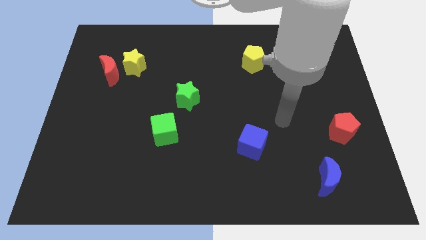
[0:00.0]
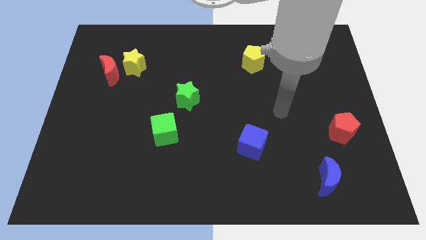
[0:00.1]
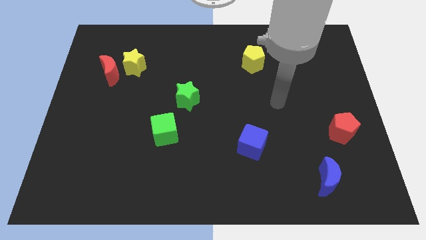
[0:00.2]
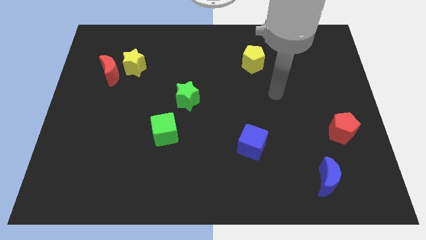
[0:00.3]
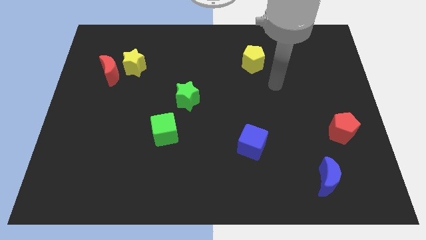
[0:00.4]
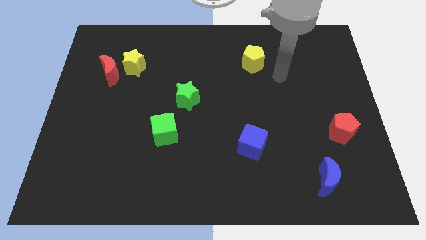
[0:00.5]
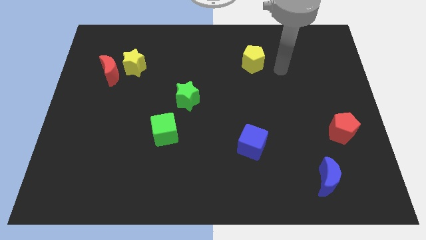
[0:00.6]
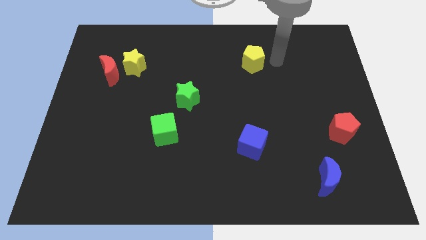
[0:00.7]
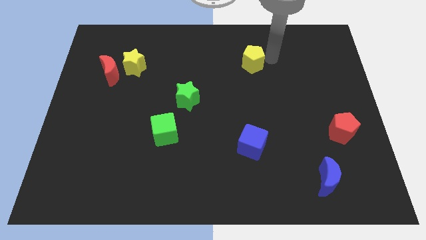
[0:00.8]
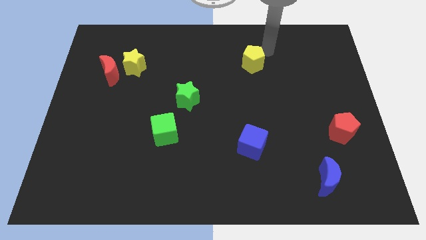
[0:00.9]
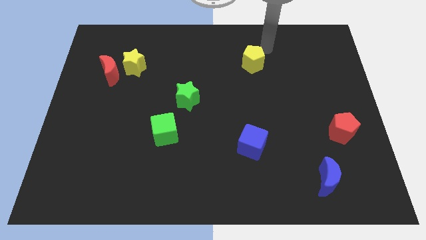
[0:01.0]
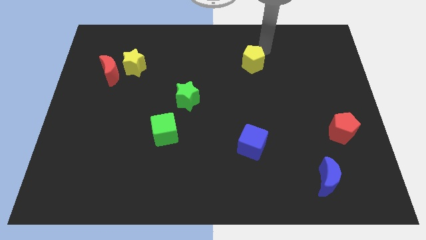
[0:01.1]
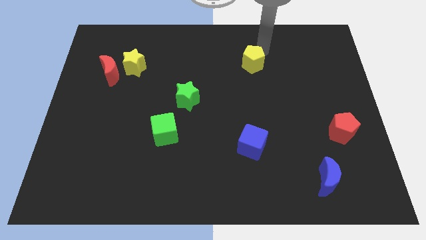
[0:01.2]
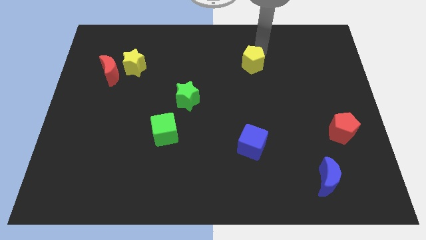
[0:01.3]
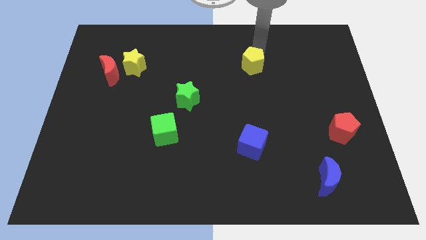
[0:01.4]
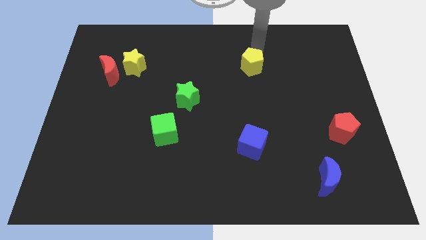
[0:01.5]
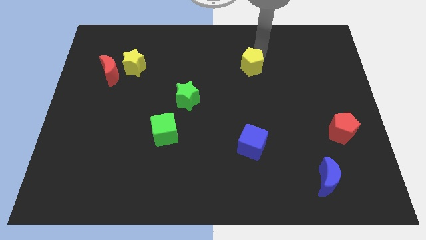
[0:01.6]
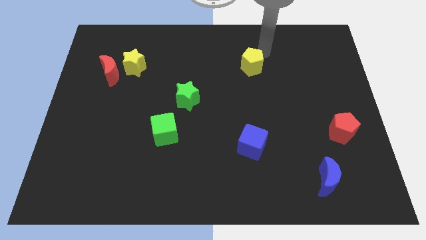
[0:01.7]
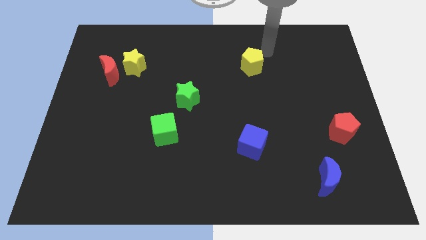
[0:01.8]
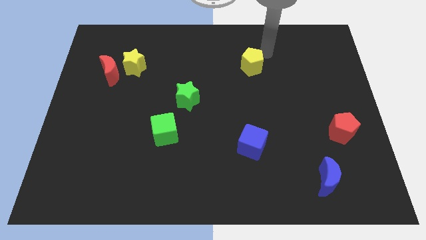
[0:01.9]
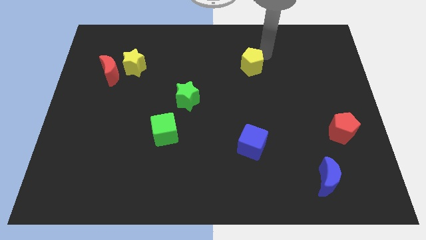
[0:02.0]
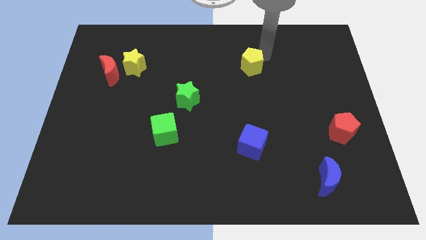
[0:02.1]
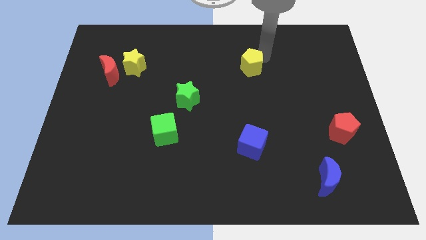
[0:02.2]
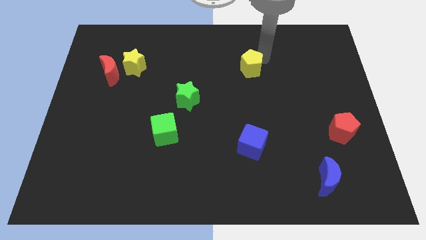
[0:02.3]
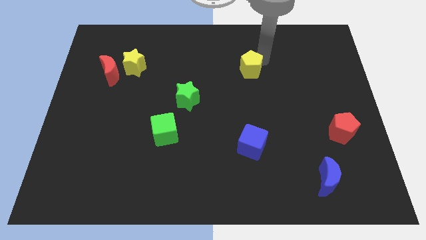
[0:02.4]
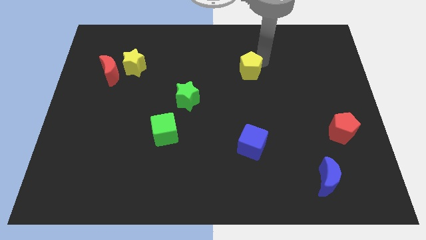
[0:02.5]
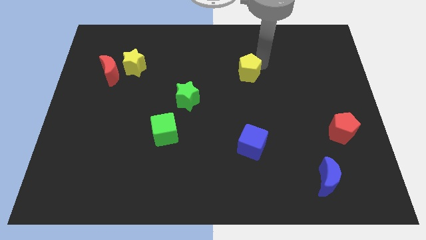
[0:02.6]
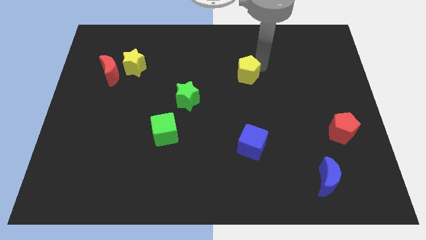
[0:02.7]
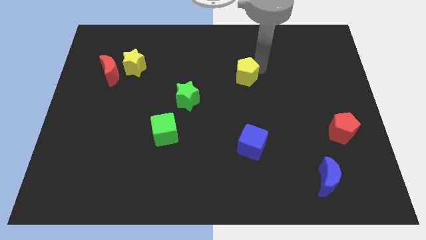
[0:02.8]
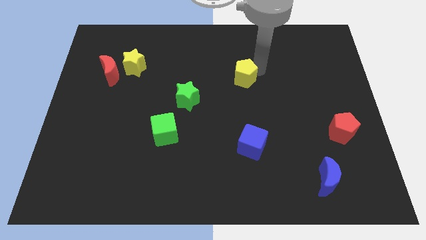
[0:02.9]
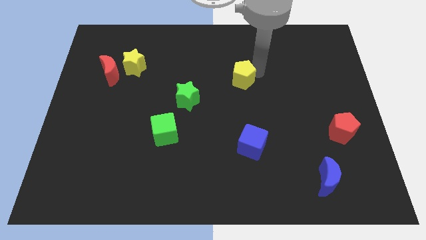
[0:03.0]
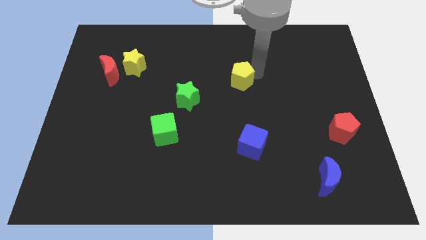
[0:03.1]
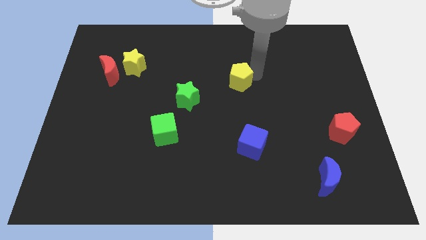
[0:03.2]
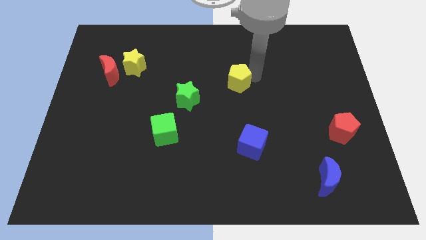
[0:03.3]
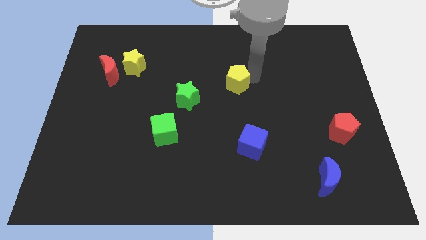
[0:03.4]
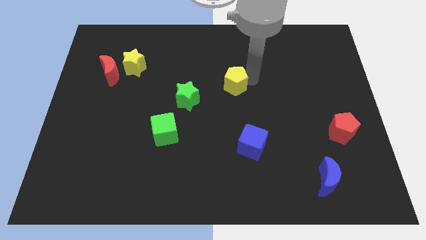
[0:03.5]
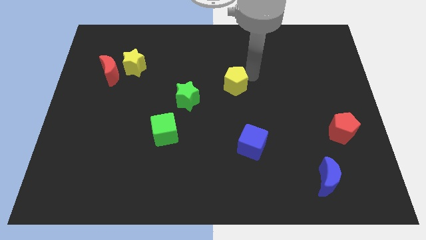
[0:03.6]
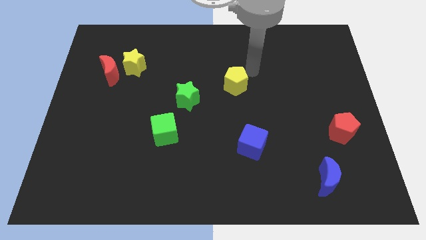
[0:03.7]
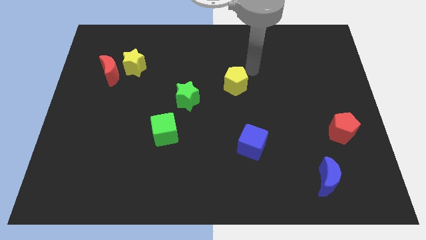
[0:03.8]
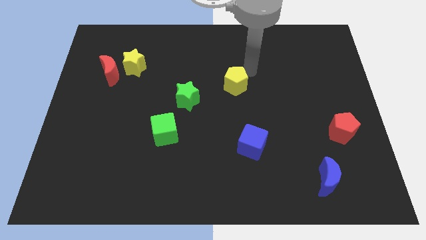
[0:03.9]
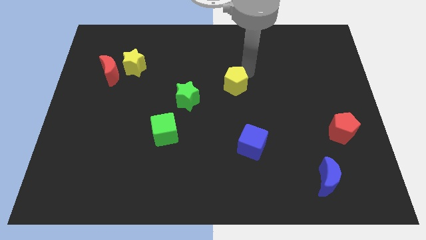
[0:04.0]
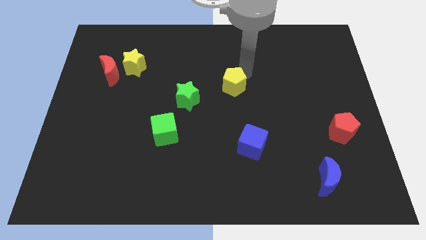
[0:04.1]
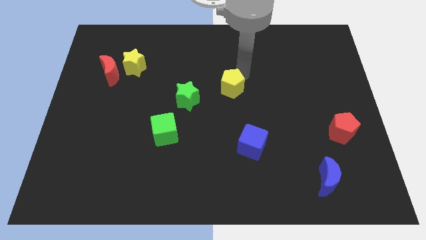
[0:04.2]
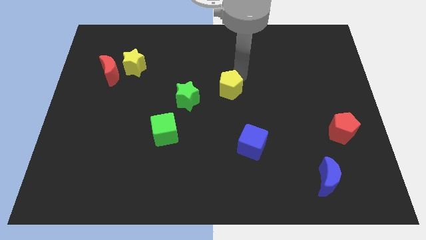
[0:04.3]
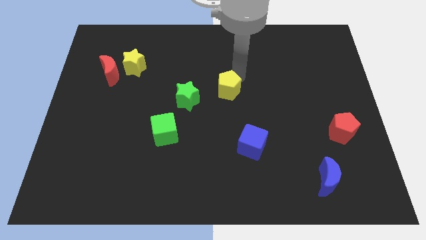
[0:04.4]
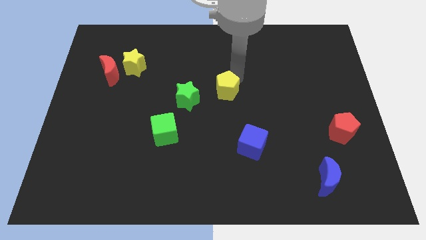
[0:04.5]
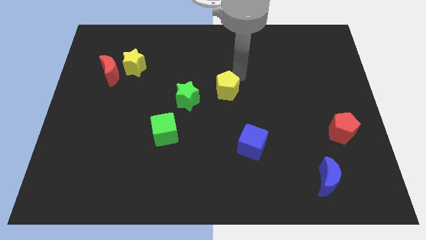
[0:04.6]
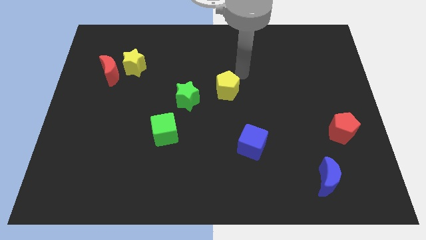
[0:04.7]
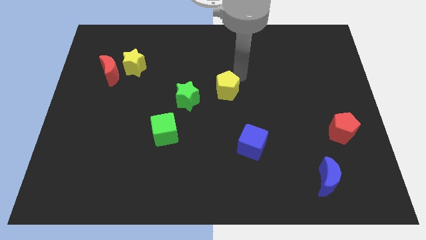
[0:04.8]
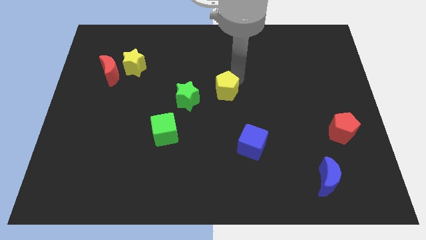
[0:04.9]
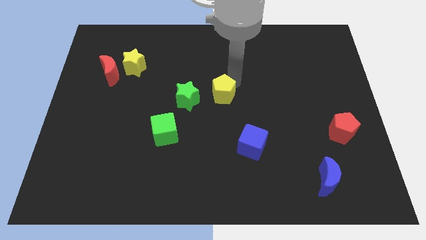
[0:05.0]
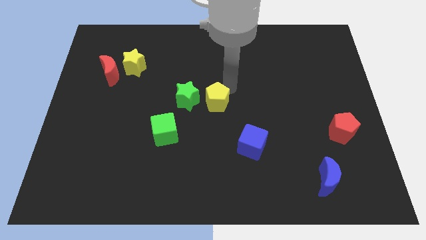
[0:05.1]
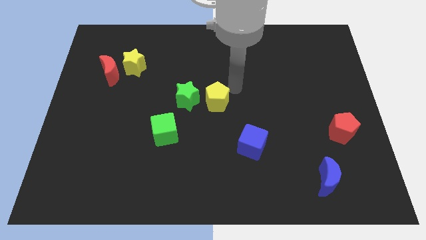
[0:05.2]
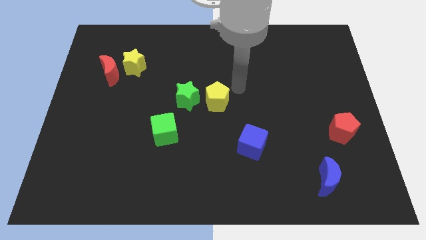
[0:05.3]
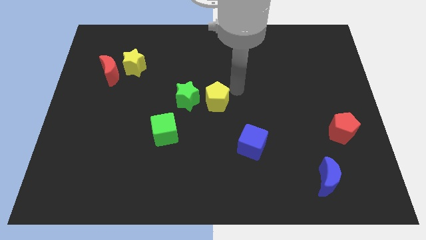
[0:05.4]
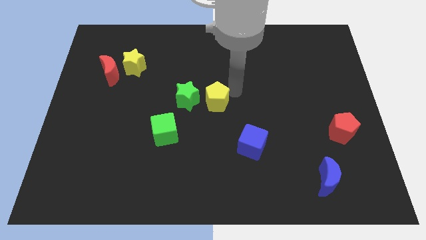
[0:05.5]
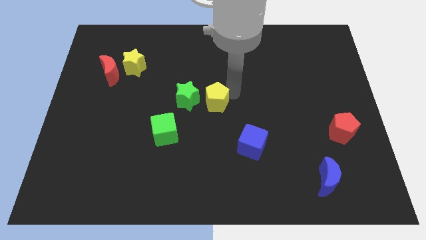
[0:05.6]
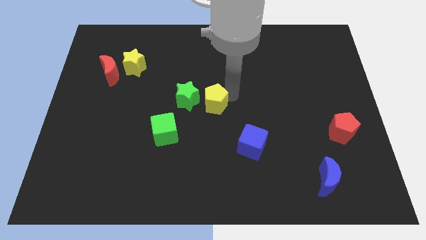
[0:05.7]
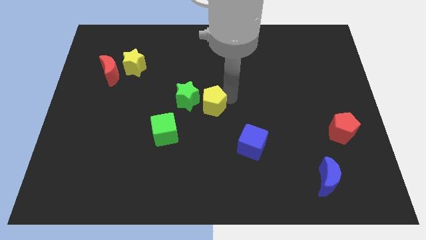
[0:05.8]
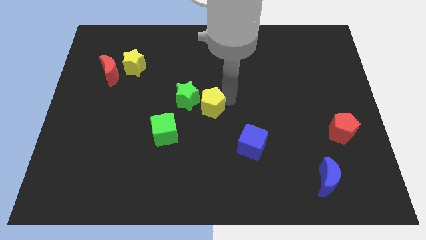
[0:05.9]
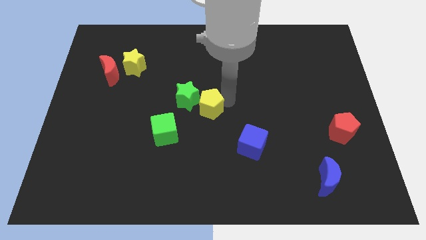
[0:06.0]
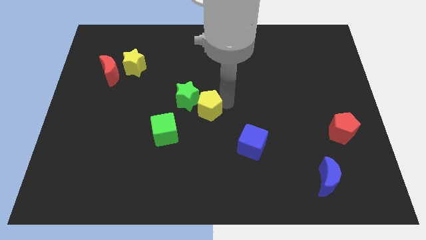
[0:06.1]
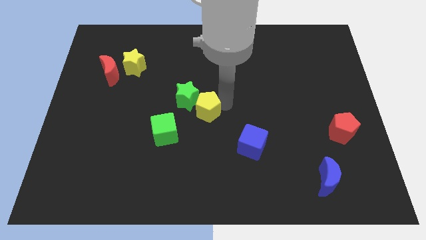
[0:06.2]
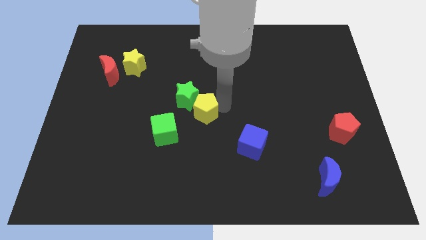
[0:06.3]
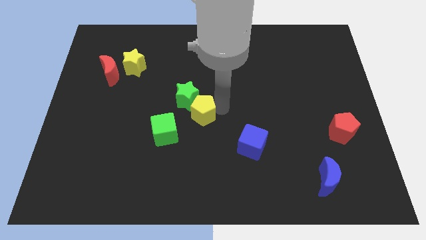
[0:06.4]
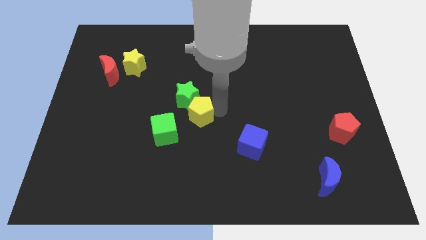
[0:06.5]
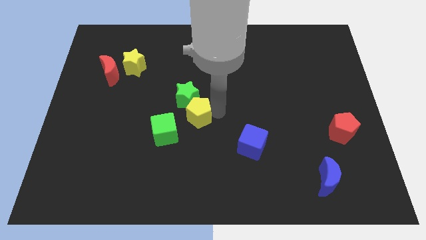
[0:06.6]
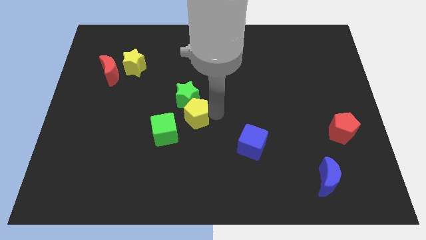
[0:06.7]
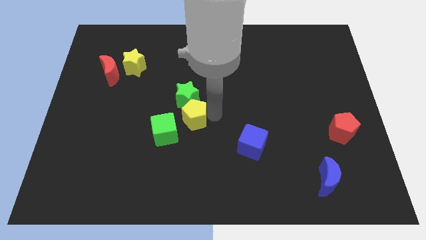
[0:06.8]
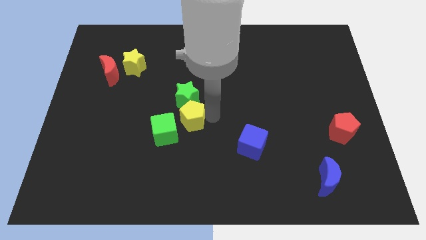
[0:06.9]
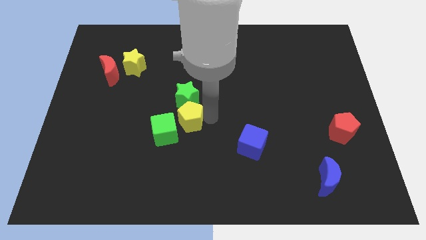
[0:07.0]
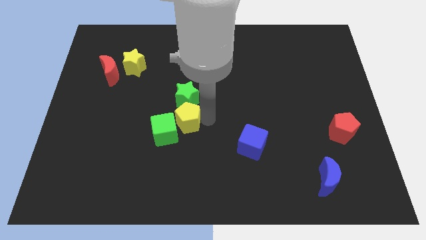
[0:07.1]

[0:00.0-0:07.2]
put the yellow pentagon close to the green cube
